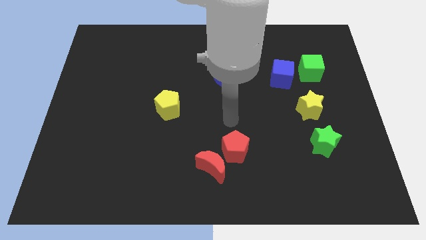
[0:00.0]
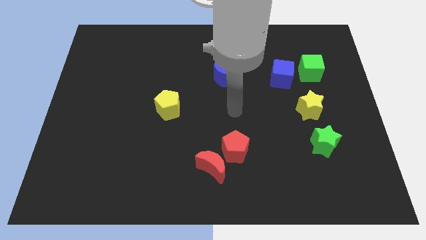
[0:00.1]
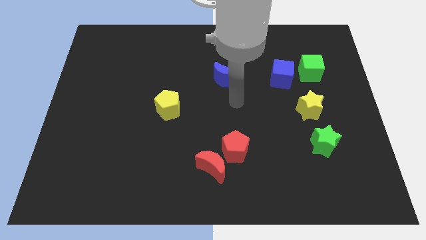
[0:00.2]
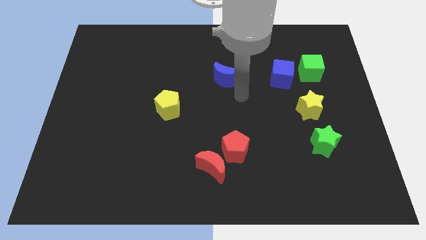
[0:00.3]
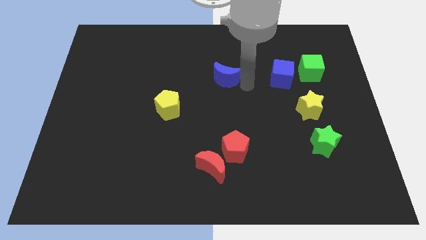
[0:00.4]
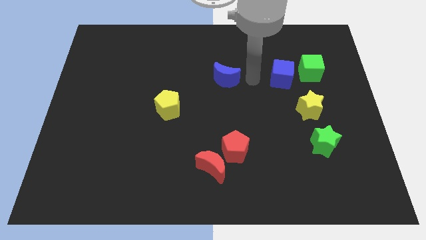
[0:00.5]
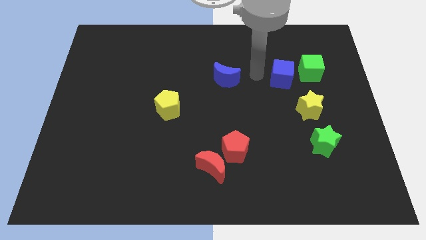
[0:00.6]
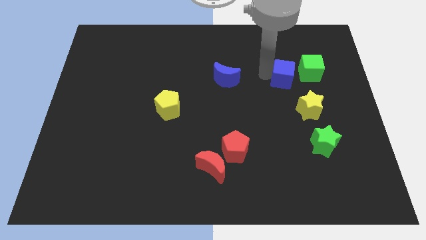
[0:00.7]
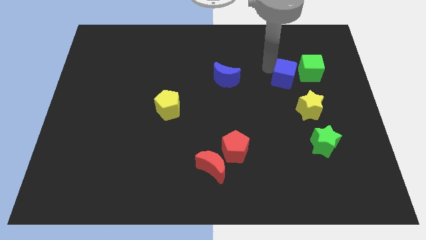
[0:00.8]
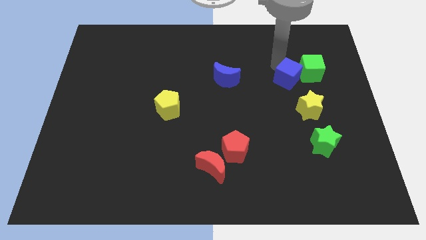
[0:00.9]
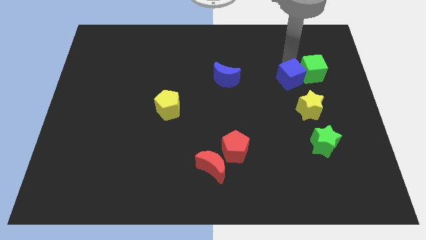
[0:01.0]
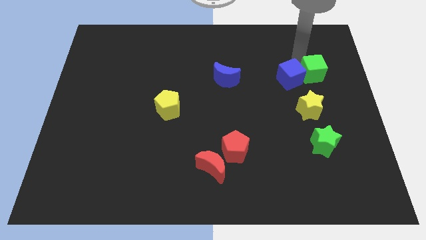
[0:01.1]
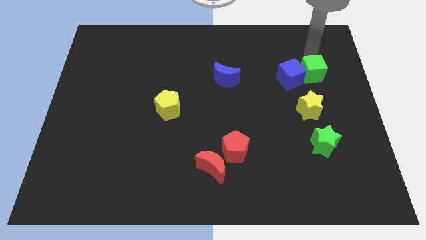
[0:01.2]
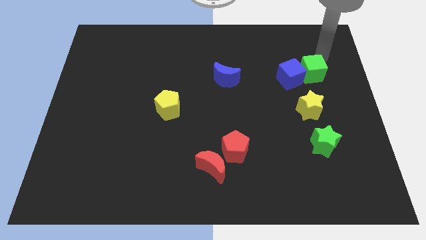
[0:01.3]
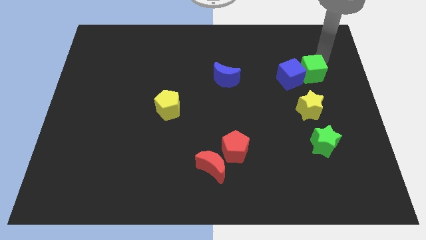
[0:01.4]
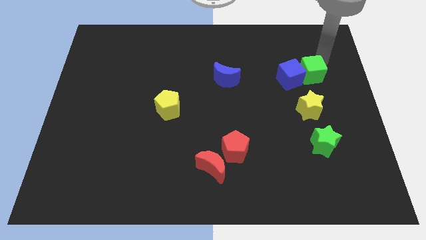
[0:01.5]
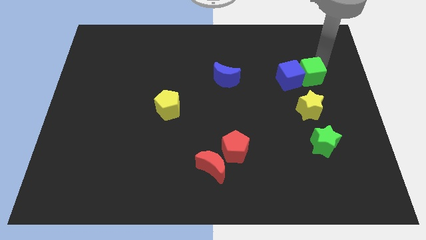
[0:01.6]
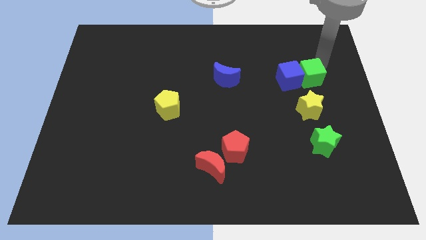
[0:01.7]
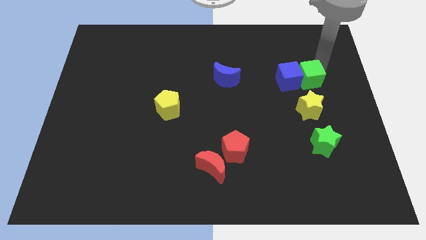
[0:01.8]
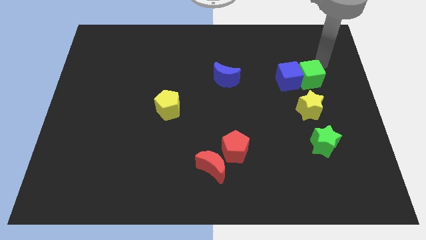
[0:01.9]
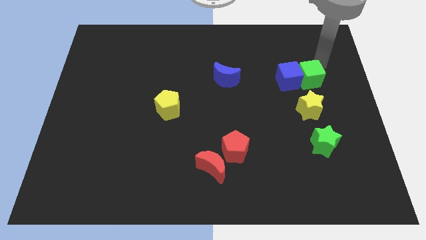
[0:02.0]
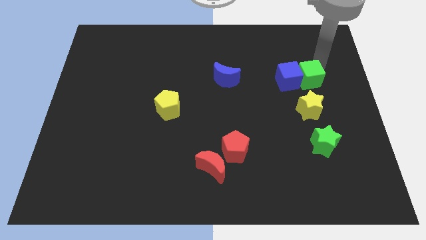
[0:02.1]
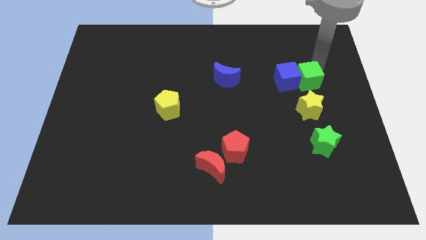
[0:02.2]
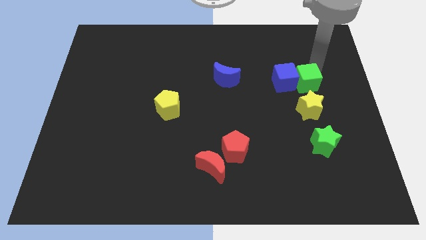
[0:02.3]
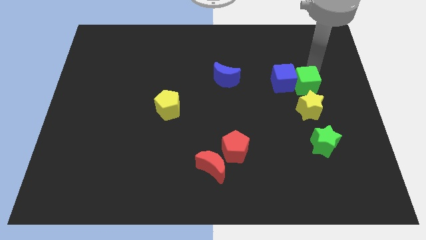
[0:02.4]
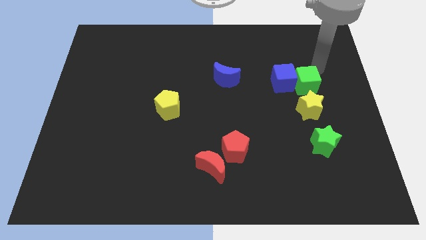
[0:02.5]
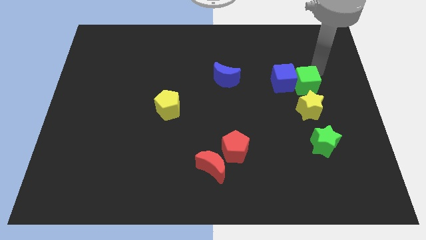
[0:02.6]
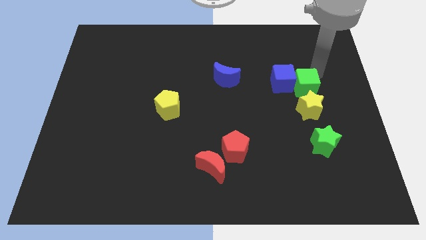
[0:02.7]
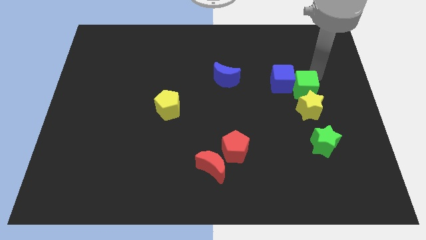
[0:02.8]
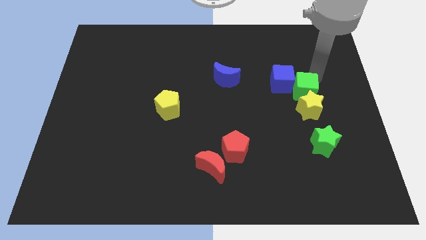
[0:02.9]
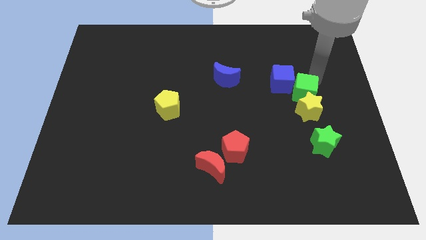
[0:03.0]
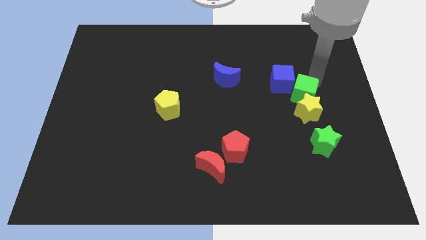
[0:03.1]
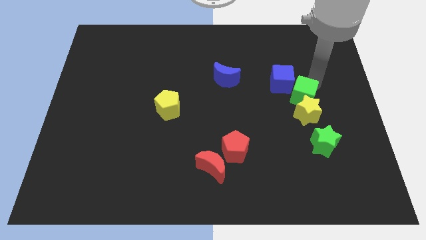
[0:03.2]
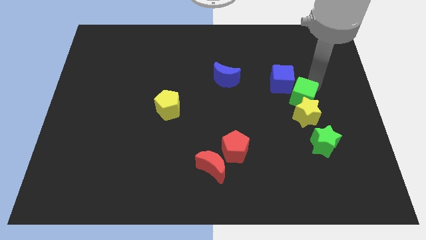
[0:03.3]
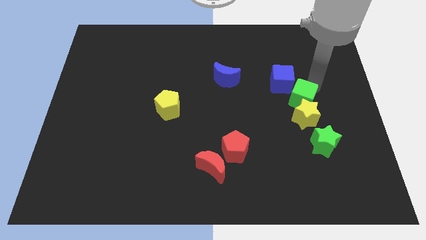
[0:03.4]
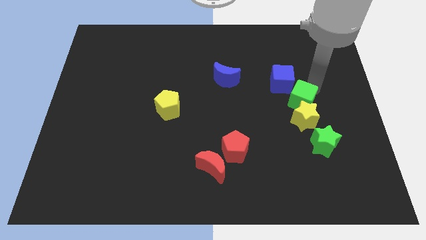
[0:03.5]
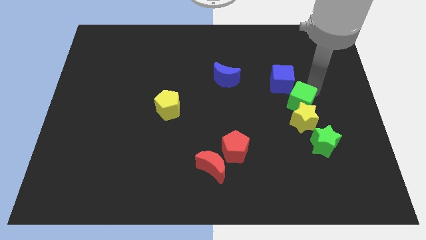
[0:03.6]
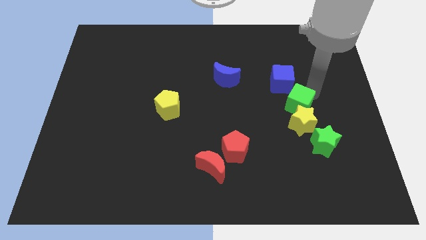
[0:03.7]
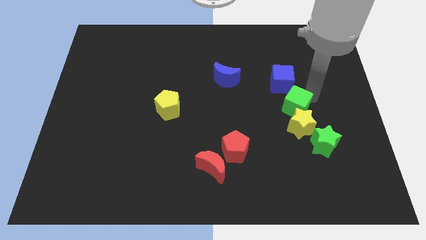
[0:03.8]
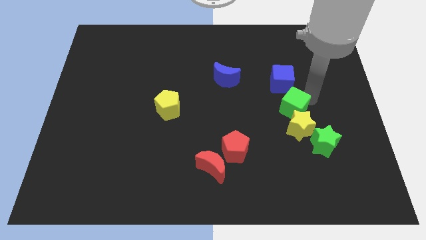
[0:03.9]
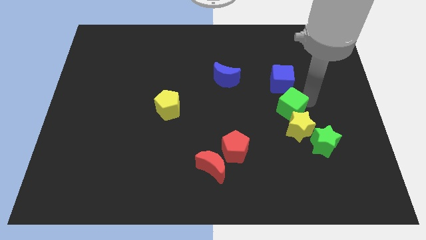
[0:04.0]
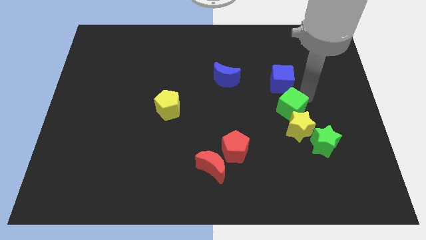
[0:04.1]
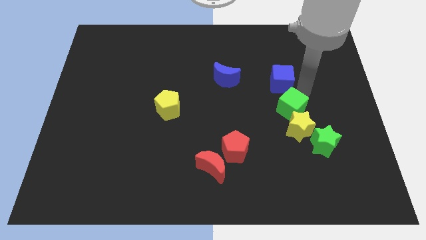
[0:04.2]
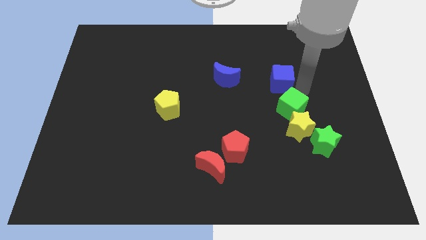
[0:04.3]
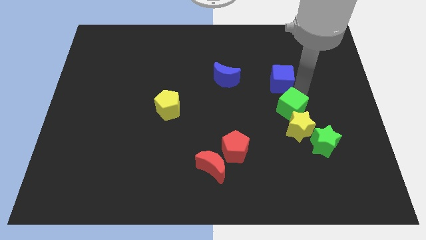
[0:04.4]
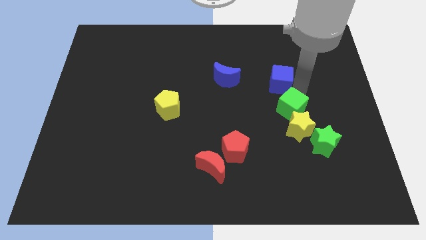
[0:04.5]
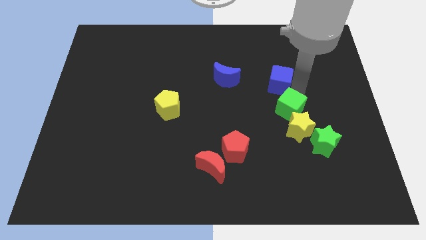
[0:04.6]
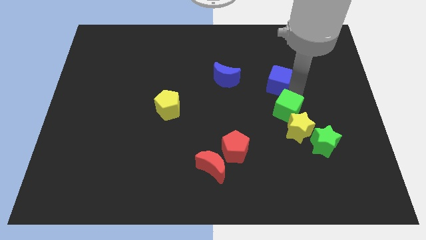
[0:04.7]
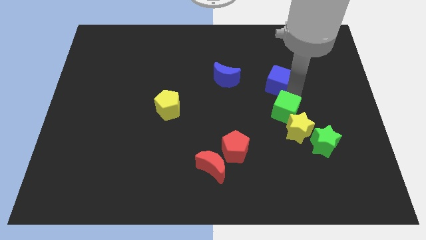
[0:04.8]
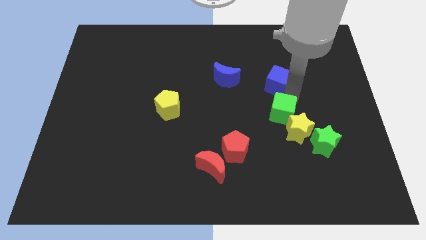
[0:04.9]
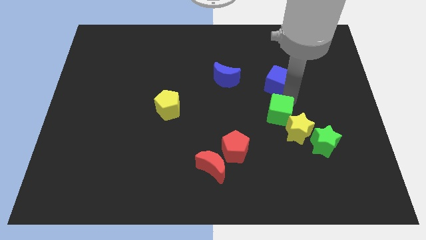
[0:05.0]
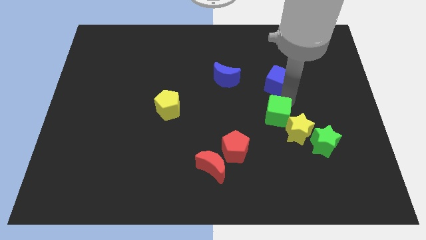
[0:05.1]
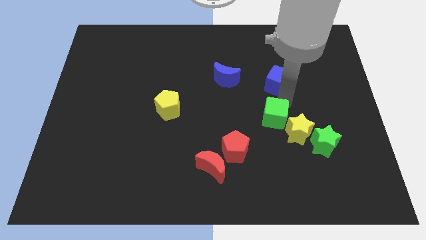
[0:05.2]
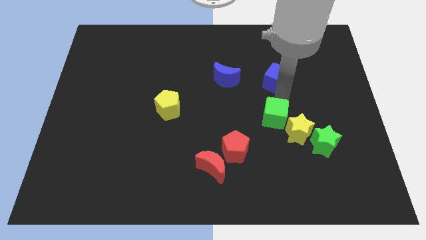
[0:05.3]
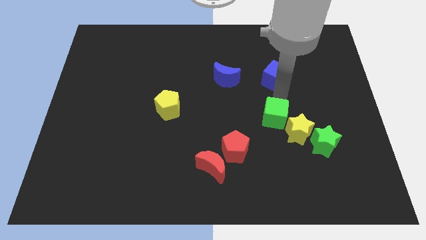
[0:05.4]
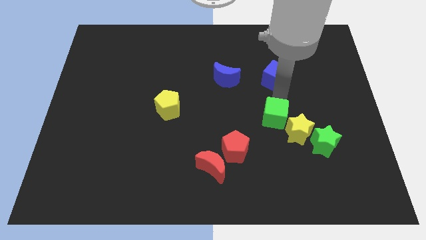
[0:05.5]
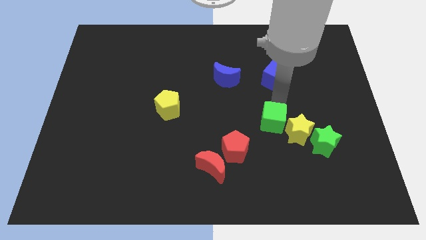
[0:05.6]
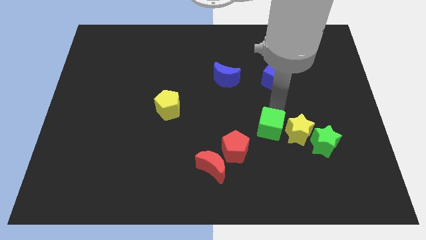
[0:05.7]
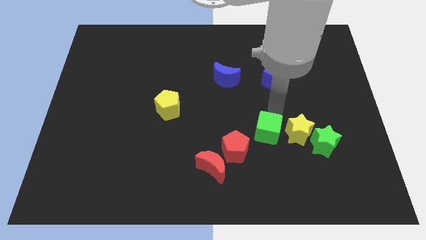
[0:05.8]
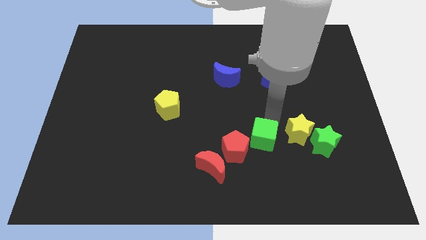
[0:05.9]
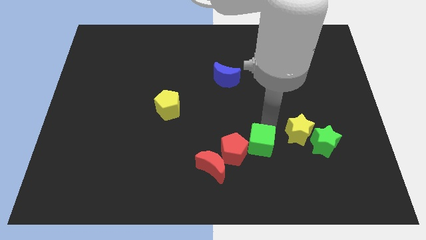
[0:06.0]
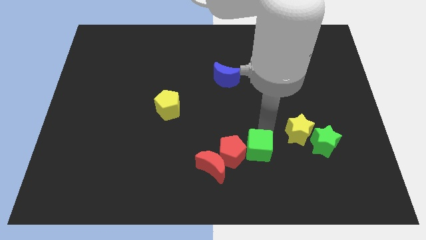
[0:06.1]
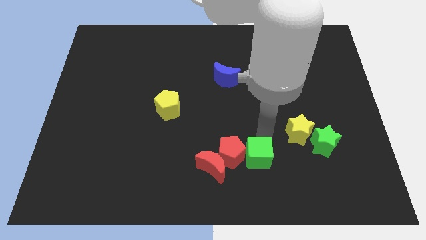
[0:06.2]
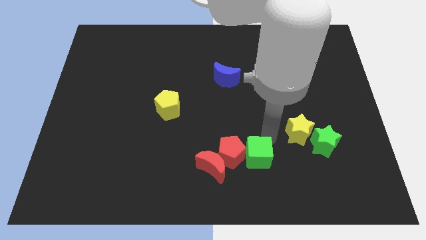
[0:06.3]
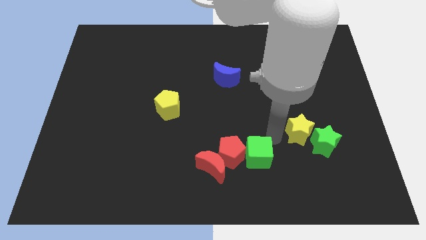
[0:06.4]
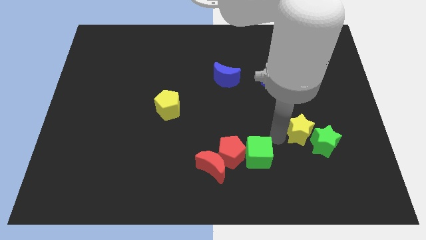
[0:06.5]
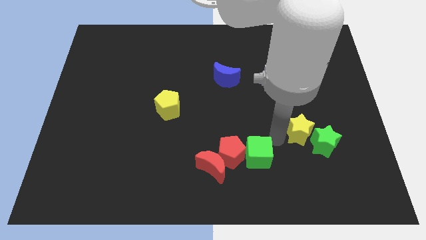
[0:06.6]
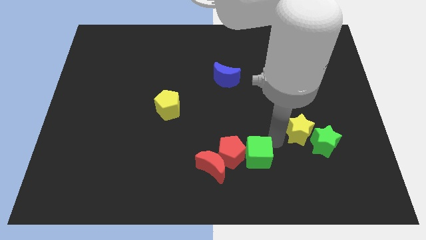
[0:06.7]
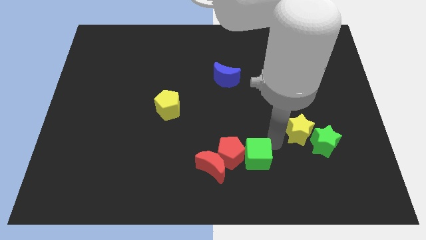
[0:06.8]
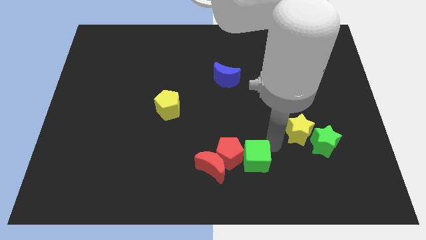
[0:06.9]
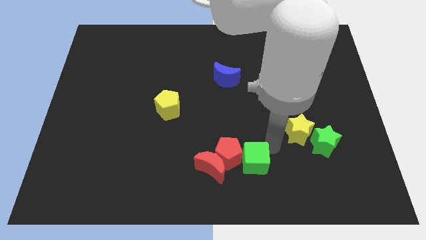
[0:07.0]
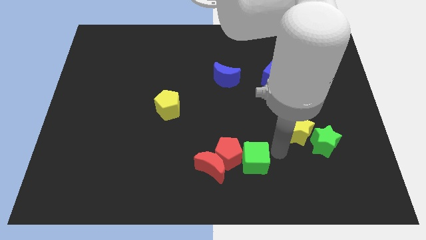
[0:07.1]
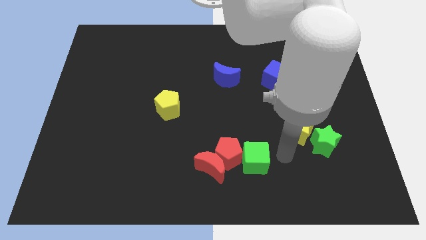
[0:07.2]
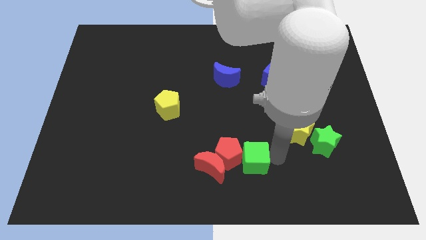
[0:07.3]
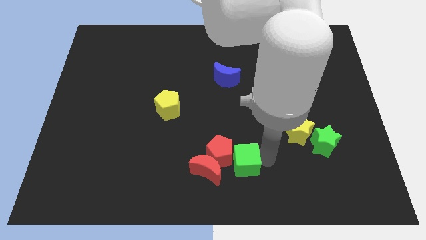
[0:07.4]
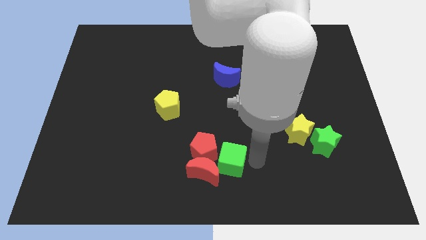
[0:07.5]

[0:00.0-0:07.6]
push the green cube close to the red moon
